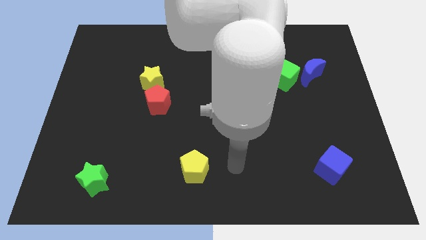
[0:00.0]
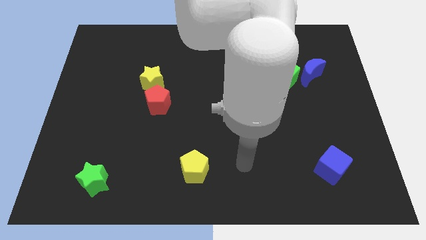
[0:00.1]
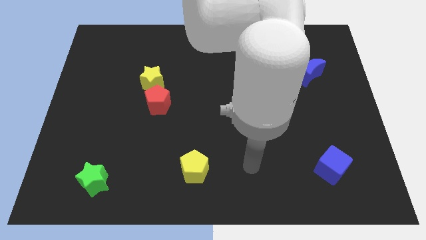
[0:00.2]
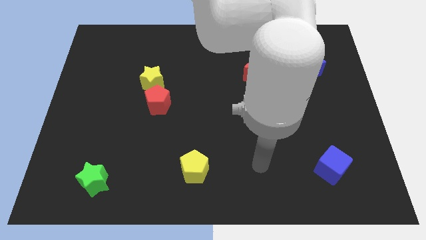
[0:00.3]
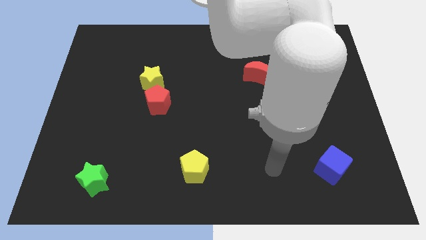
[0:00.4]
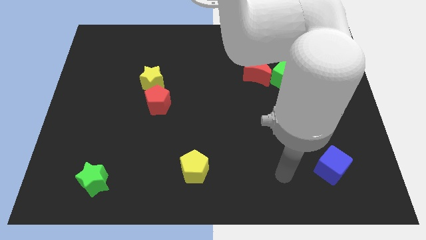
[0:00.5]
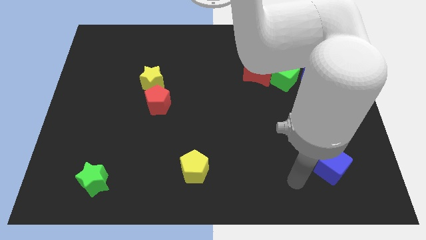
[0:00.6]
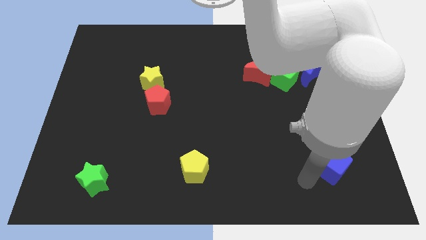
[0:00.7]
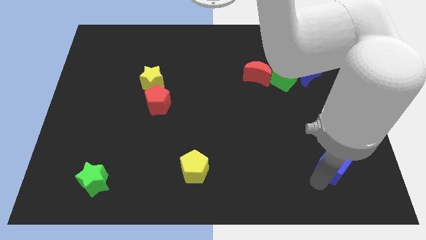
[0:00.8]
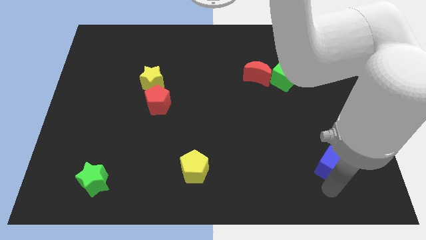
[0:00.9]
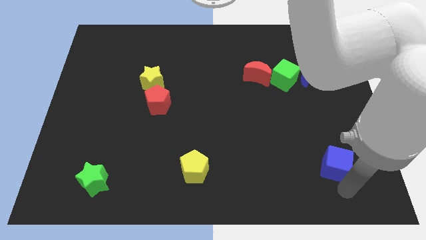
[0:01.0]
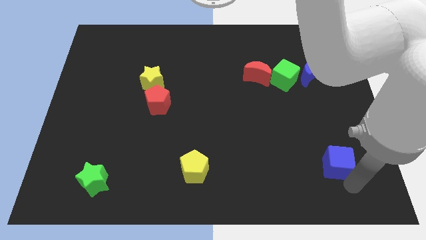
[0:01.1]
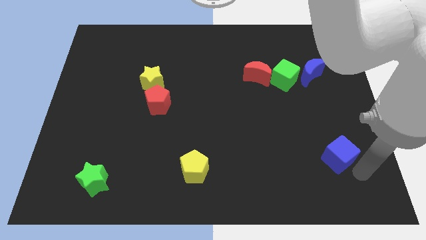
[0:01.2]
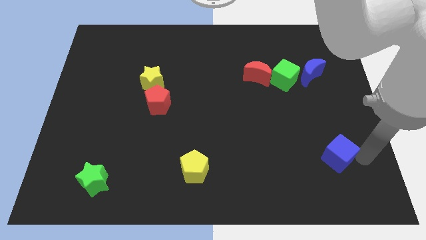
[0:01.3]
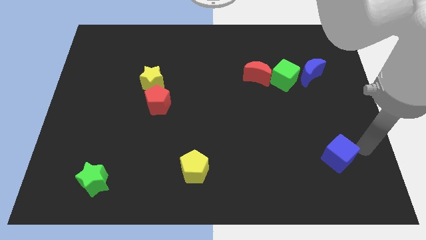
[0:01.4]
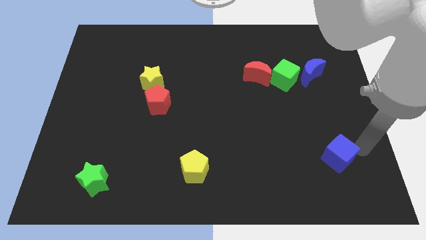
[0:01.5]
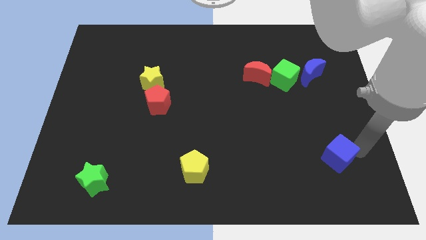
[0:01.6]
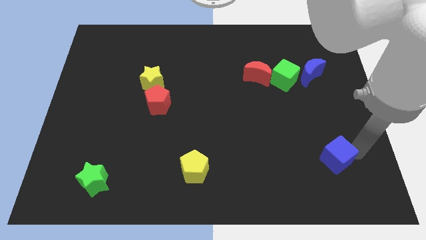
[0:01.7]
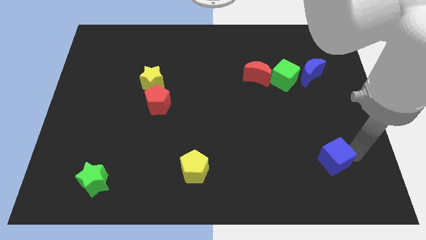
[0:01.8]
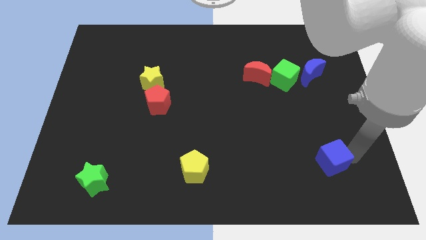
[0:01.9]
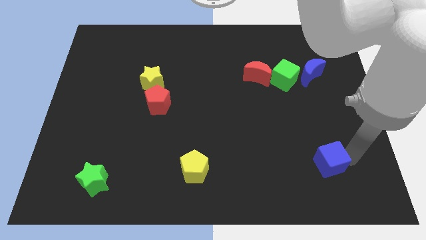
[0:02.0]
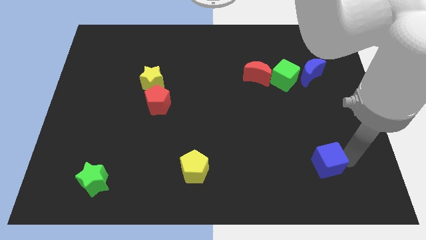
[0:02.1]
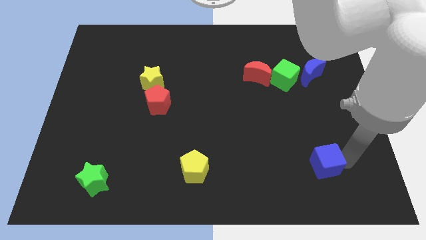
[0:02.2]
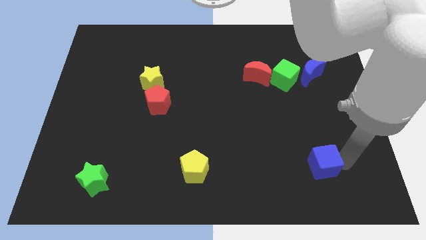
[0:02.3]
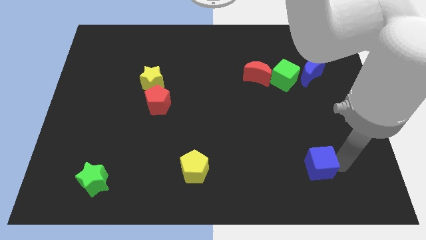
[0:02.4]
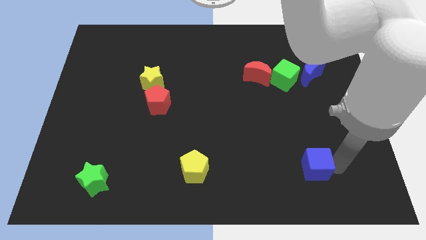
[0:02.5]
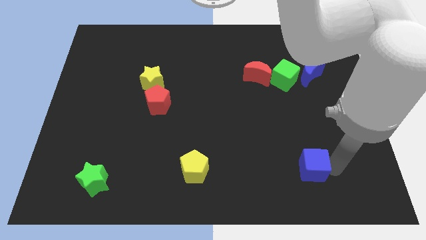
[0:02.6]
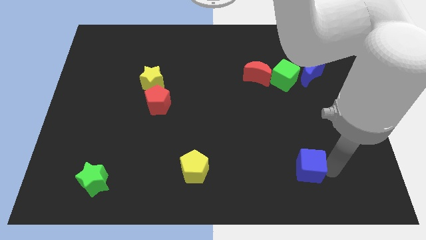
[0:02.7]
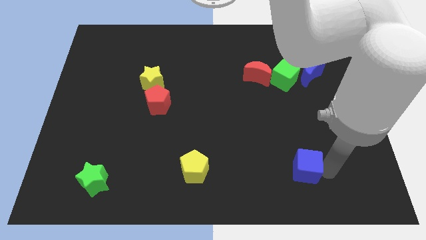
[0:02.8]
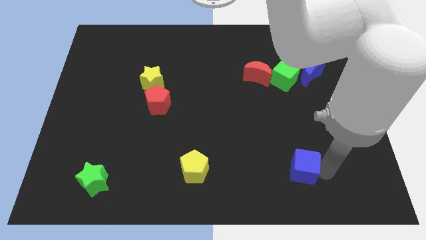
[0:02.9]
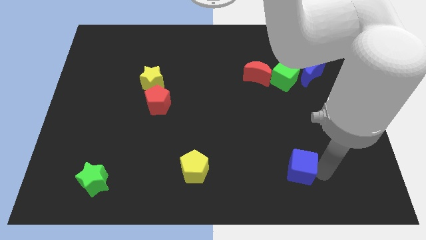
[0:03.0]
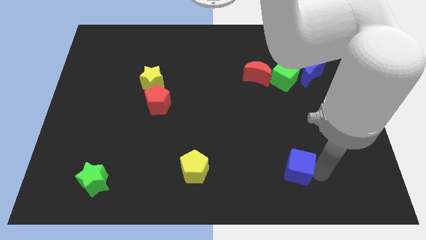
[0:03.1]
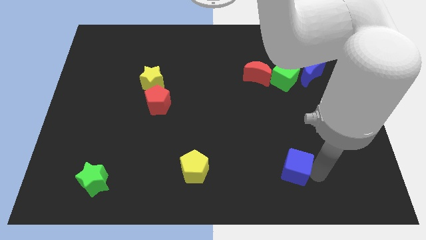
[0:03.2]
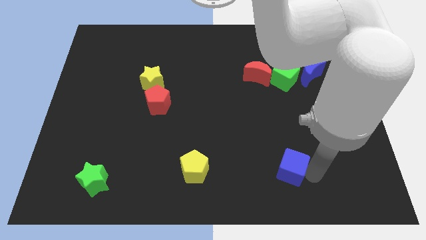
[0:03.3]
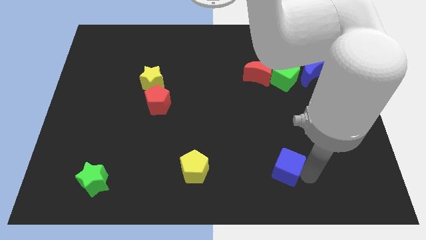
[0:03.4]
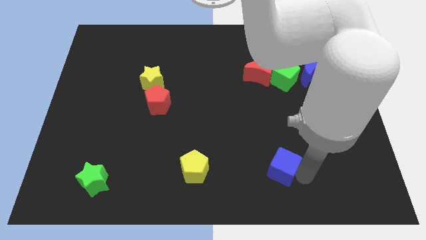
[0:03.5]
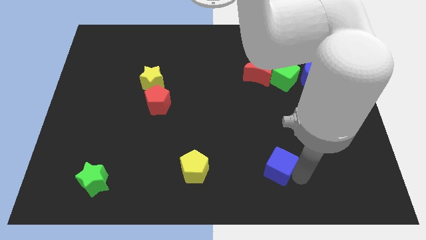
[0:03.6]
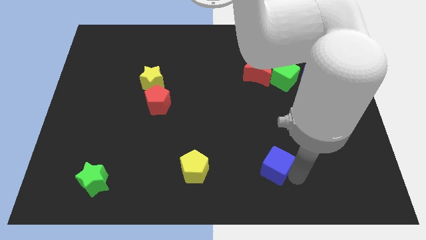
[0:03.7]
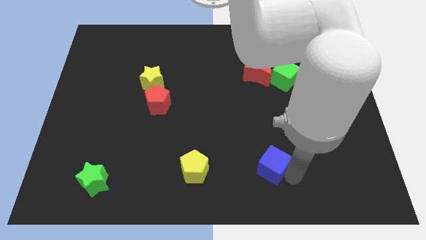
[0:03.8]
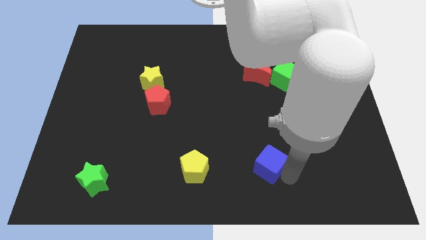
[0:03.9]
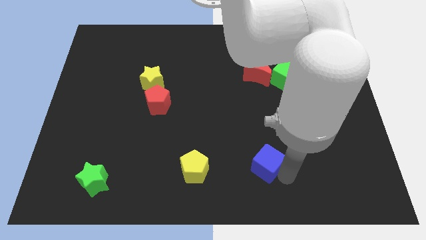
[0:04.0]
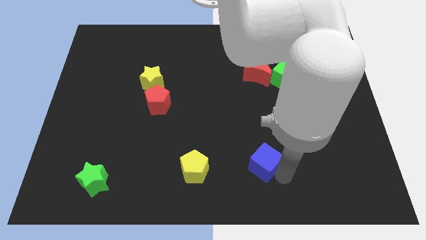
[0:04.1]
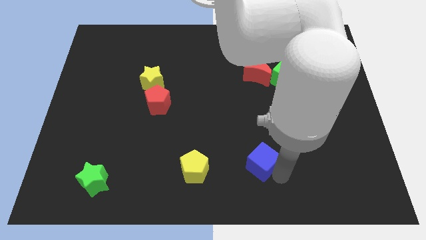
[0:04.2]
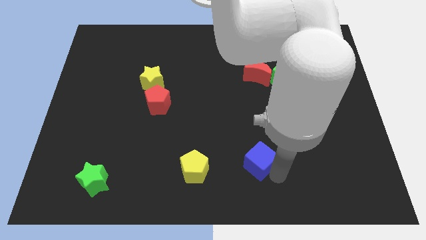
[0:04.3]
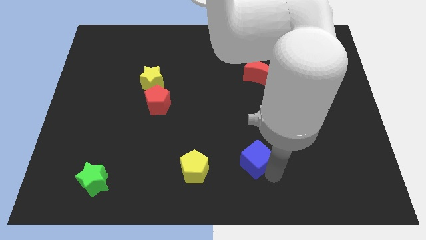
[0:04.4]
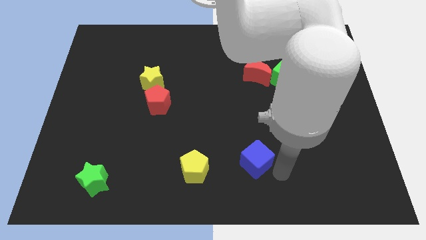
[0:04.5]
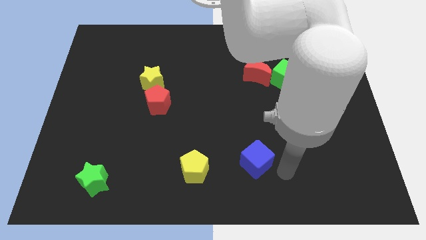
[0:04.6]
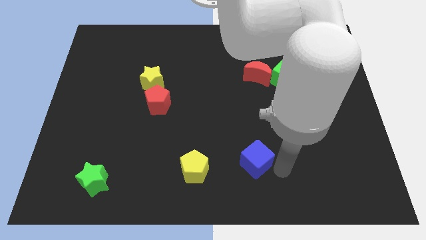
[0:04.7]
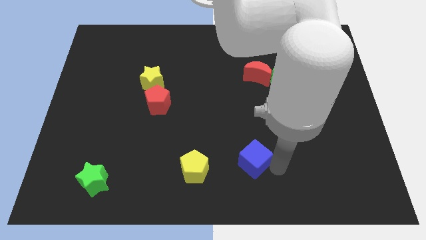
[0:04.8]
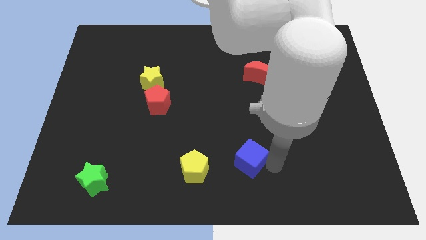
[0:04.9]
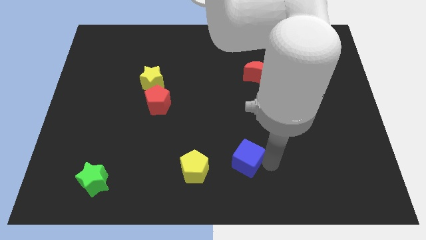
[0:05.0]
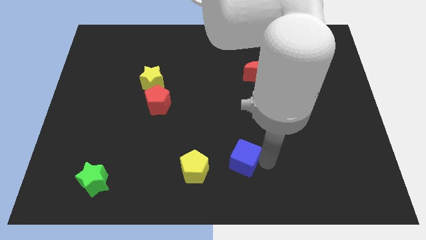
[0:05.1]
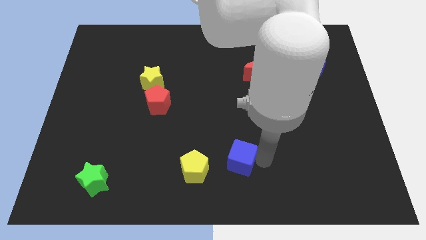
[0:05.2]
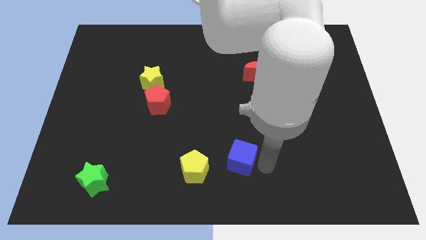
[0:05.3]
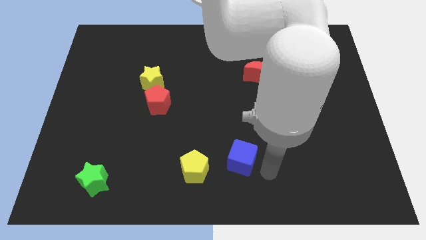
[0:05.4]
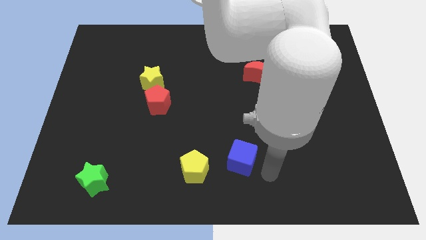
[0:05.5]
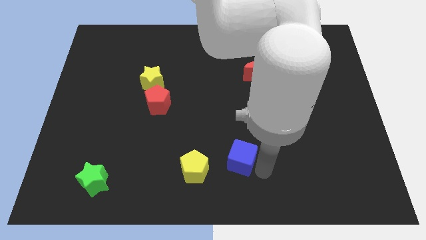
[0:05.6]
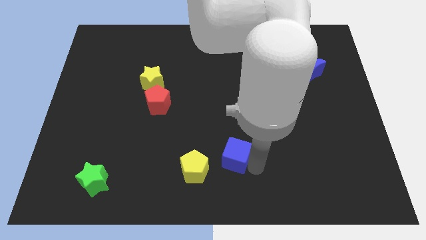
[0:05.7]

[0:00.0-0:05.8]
slide the blue cube diagonally up and to the right of the yellow pentagon
